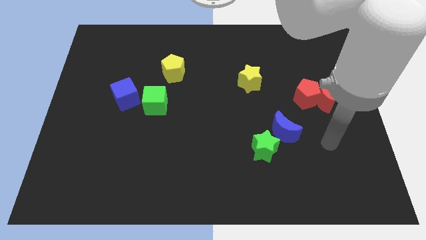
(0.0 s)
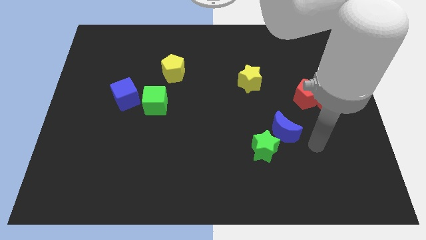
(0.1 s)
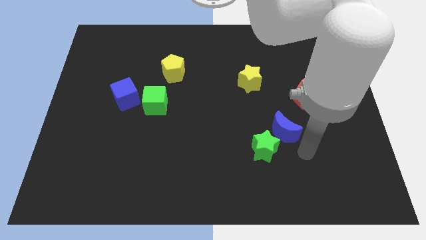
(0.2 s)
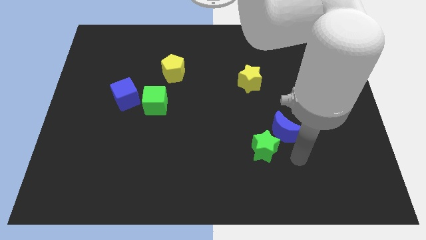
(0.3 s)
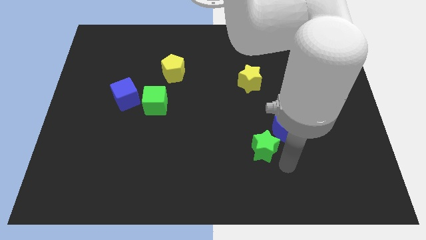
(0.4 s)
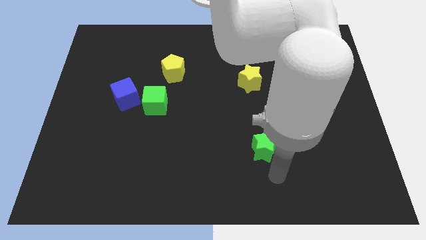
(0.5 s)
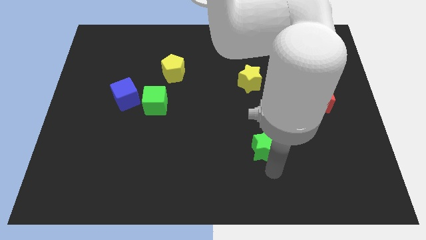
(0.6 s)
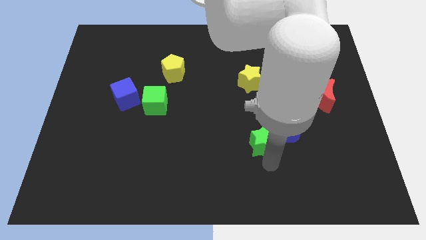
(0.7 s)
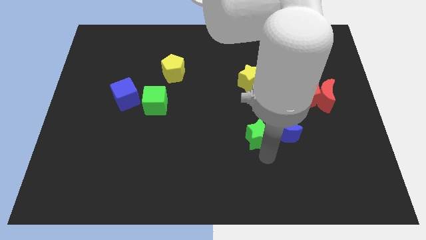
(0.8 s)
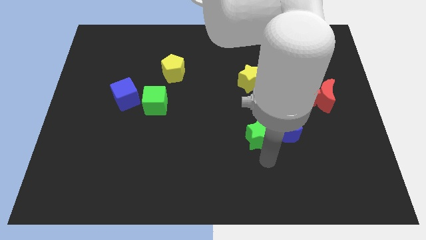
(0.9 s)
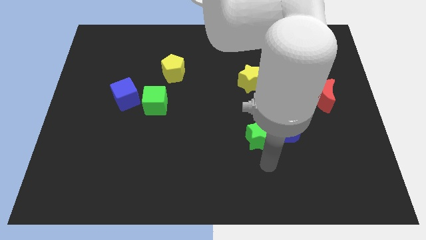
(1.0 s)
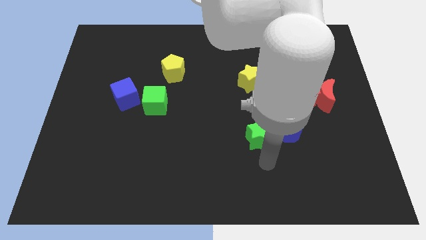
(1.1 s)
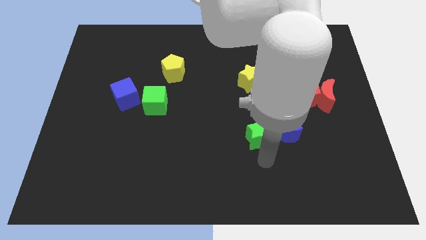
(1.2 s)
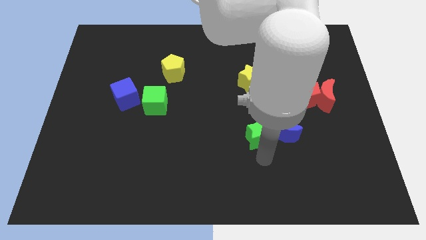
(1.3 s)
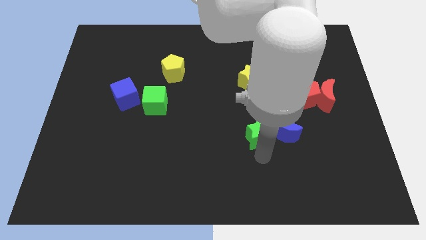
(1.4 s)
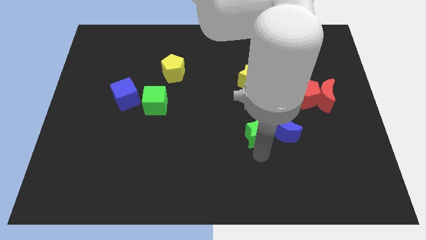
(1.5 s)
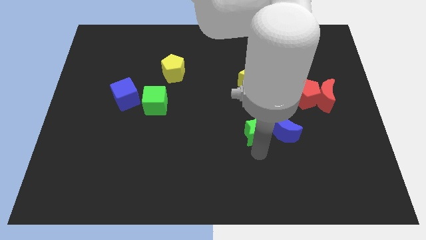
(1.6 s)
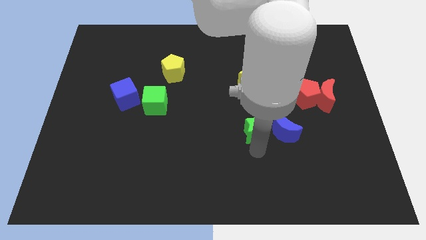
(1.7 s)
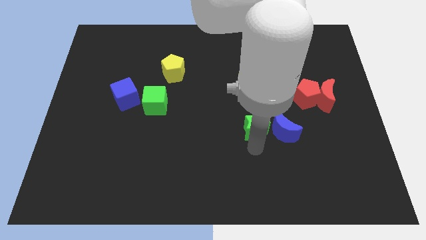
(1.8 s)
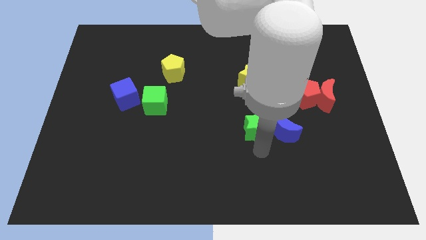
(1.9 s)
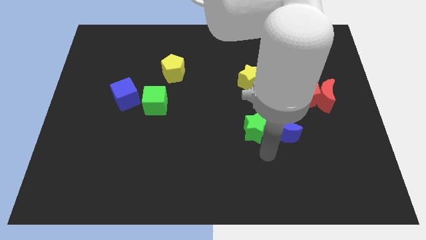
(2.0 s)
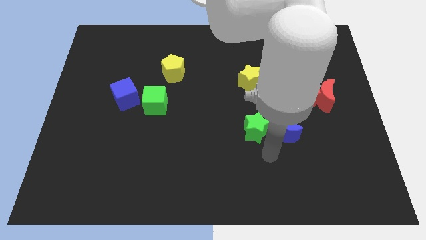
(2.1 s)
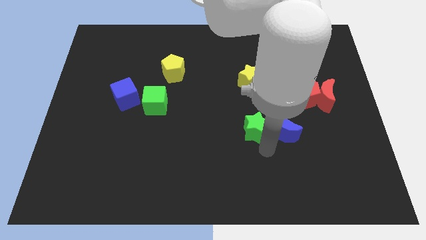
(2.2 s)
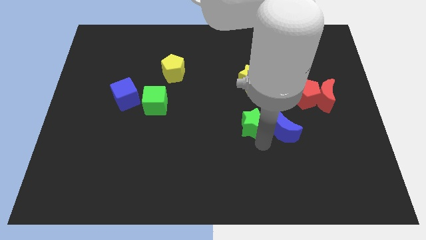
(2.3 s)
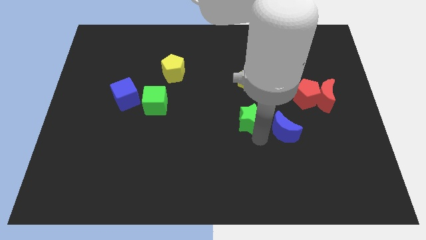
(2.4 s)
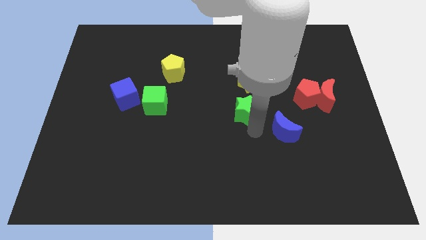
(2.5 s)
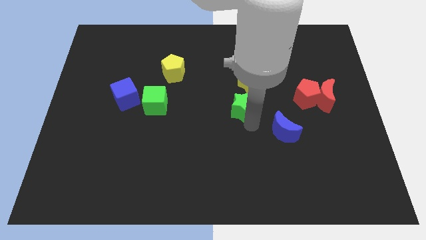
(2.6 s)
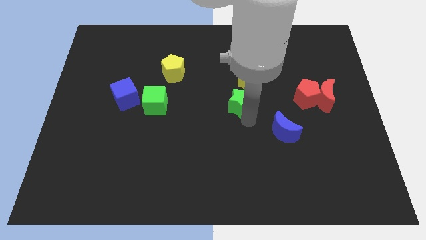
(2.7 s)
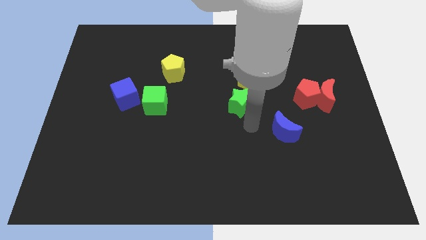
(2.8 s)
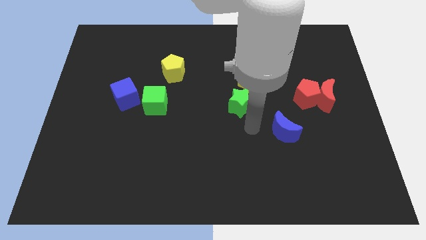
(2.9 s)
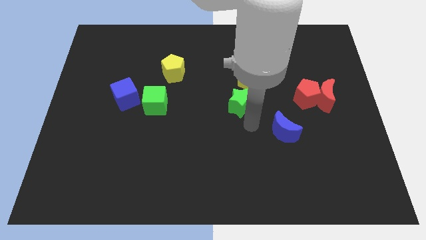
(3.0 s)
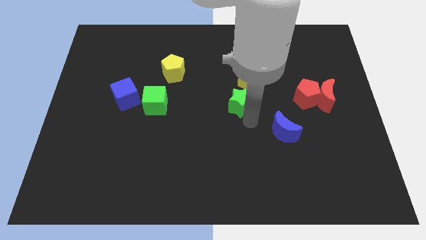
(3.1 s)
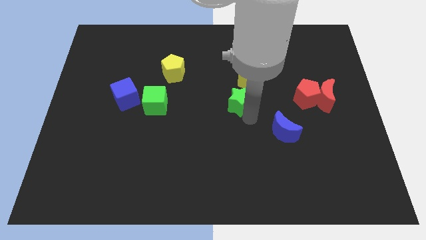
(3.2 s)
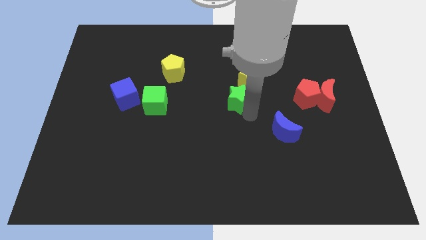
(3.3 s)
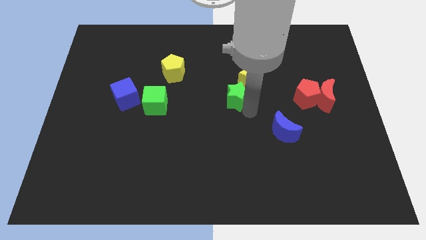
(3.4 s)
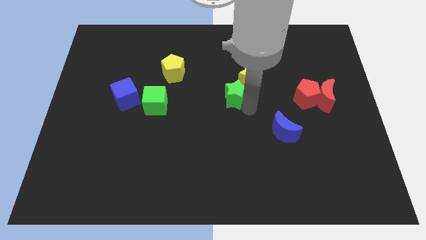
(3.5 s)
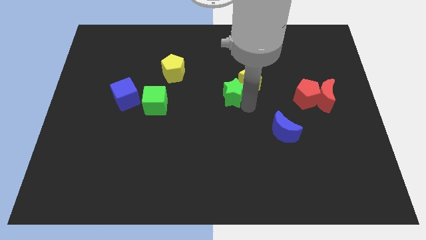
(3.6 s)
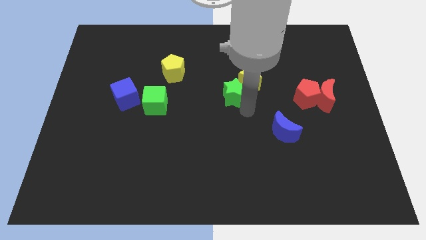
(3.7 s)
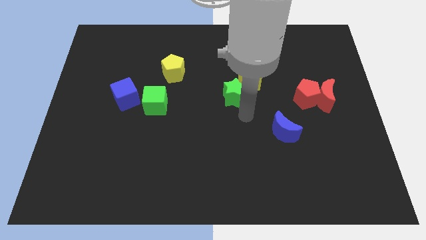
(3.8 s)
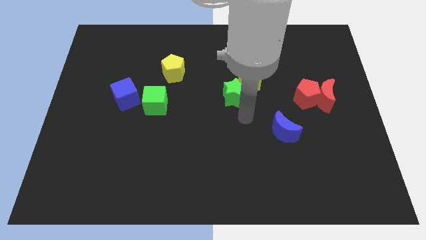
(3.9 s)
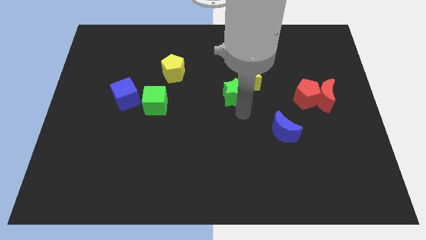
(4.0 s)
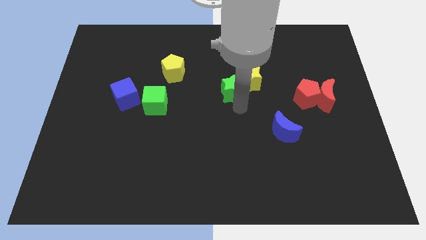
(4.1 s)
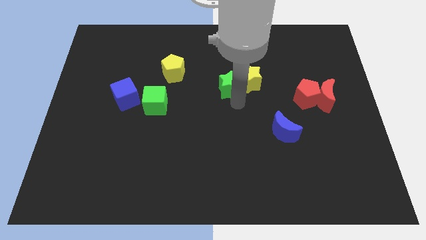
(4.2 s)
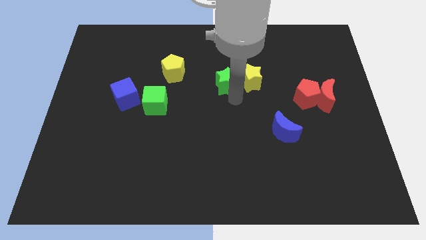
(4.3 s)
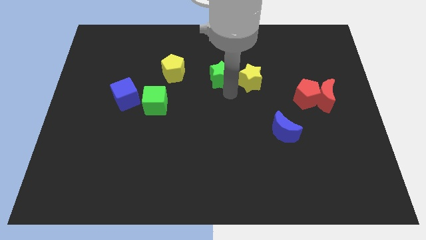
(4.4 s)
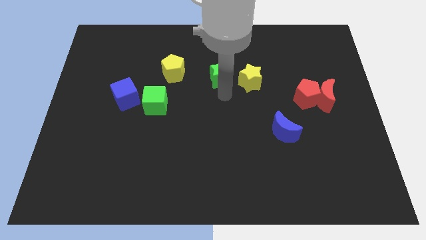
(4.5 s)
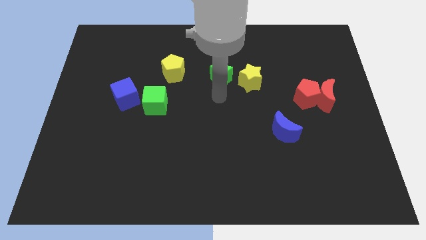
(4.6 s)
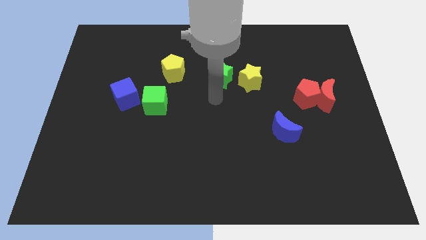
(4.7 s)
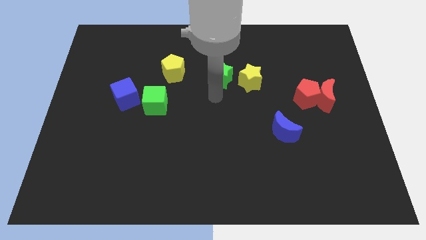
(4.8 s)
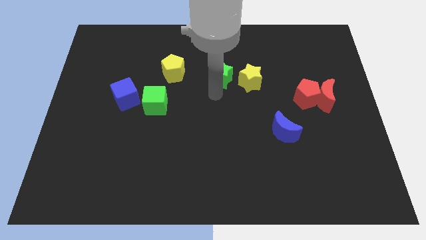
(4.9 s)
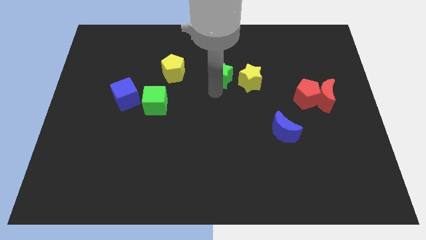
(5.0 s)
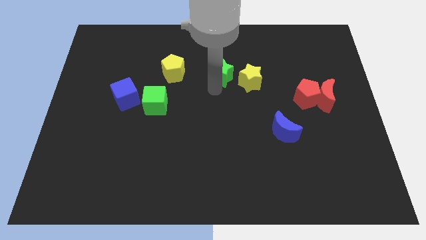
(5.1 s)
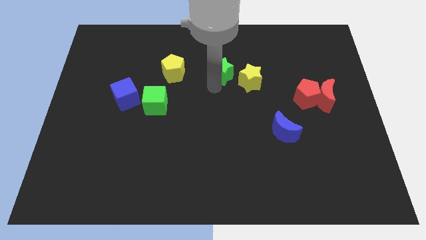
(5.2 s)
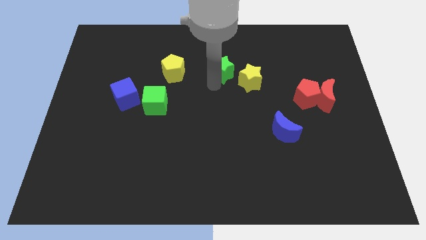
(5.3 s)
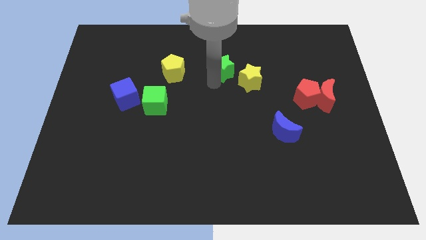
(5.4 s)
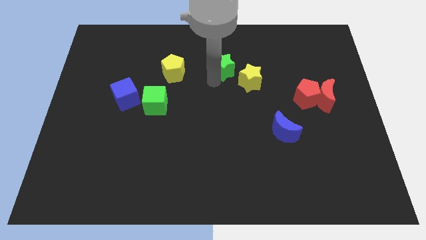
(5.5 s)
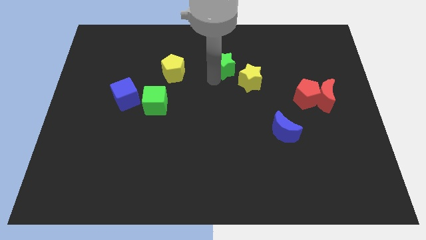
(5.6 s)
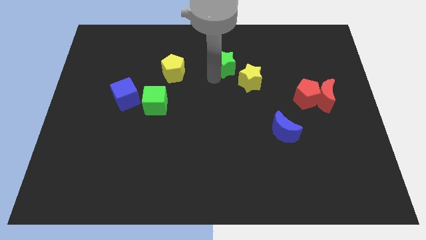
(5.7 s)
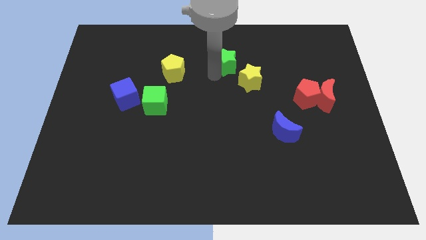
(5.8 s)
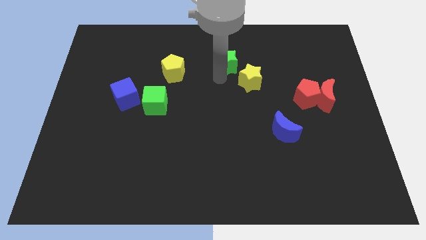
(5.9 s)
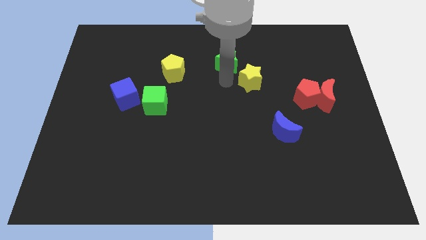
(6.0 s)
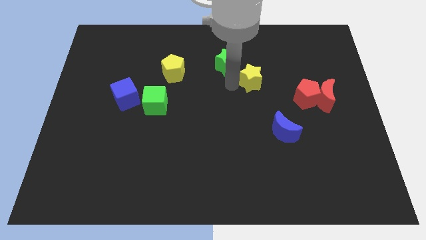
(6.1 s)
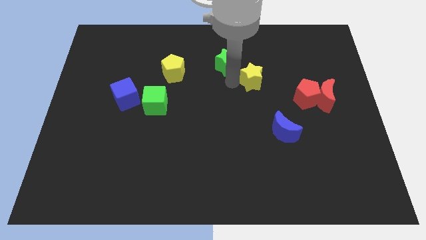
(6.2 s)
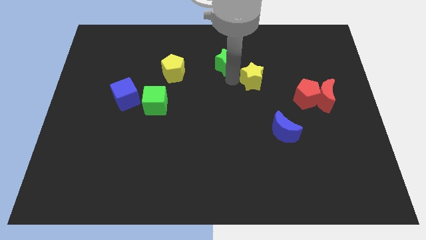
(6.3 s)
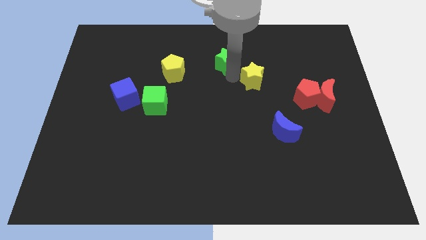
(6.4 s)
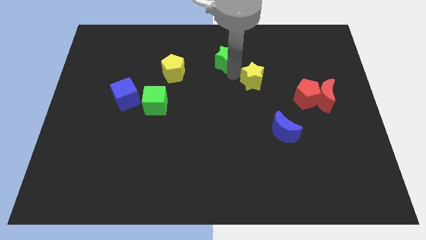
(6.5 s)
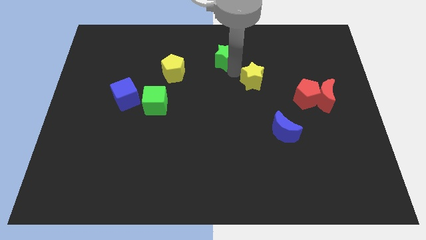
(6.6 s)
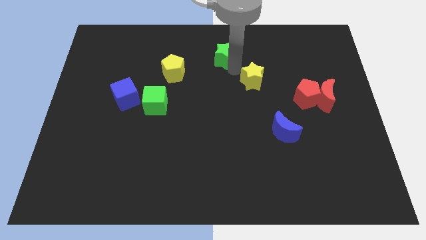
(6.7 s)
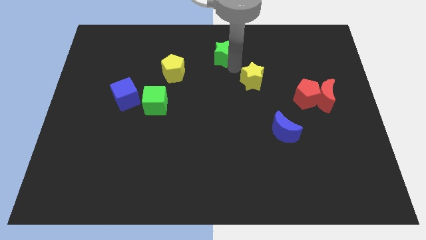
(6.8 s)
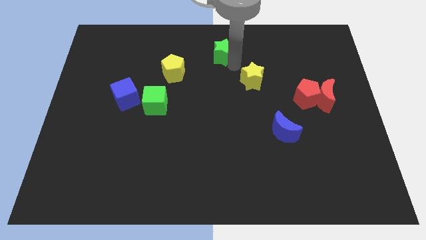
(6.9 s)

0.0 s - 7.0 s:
push the green star to the top
